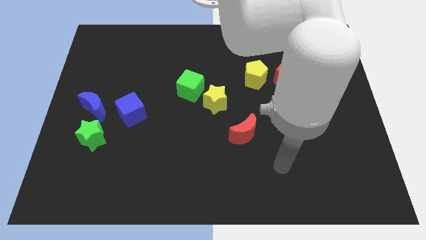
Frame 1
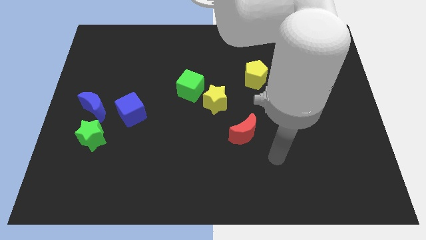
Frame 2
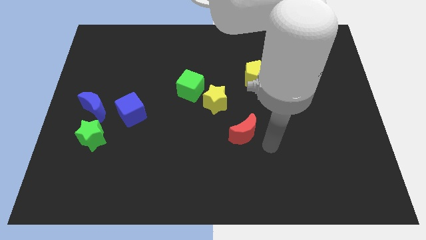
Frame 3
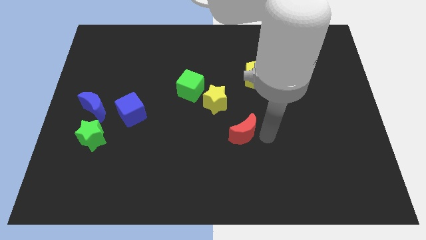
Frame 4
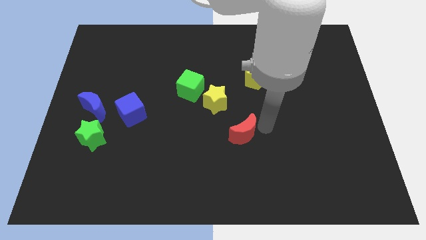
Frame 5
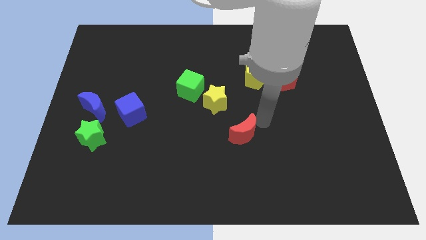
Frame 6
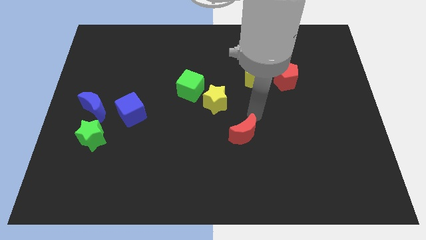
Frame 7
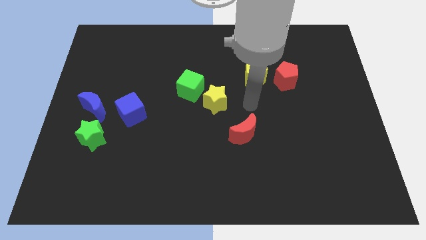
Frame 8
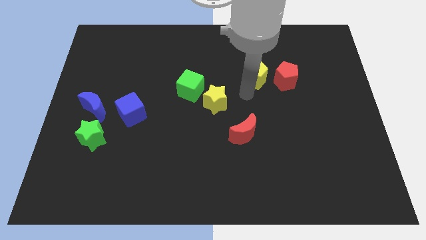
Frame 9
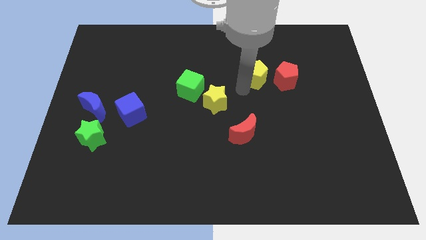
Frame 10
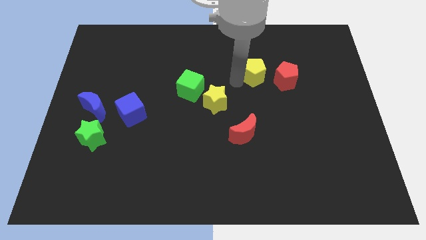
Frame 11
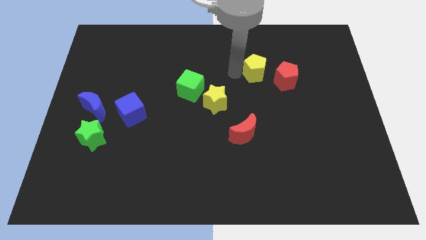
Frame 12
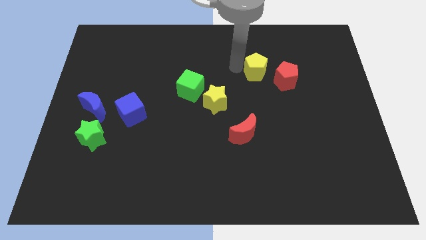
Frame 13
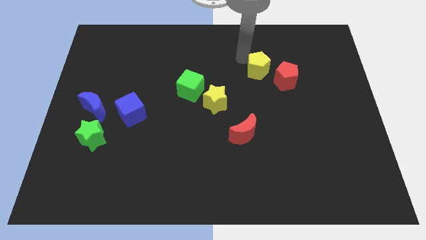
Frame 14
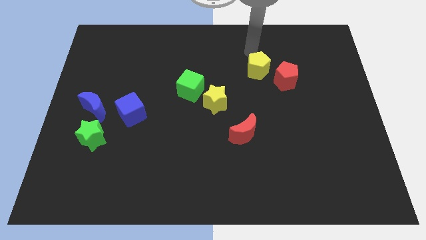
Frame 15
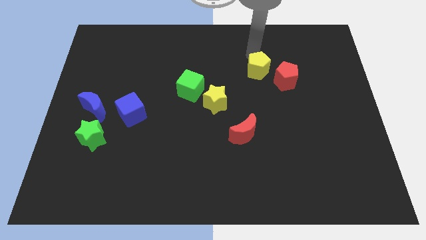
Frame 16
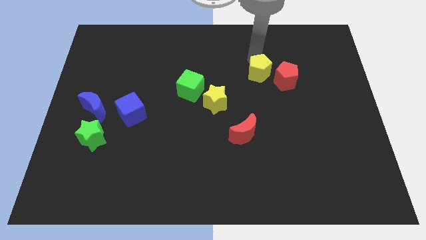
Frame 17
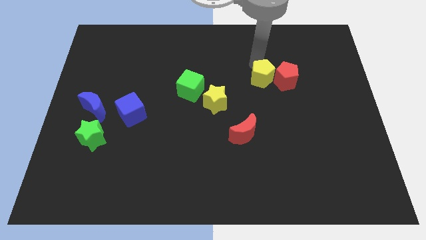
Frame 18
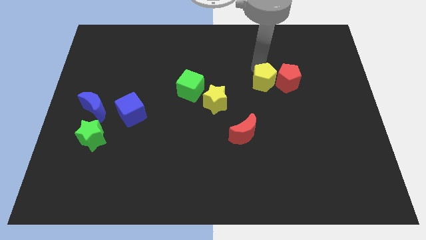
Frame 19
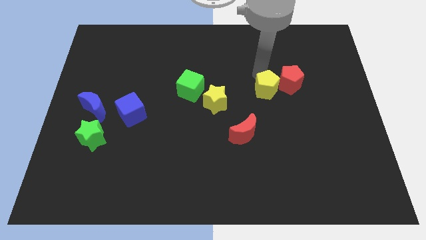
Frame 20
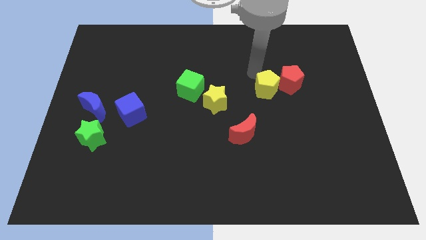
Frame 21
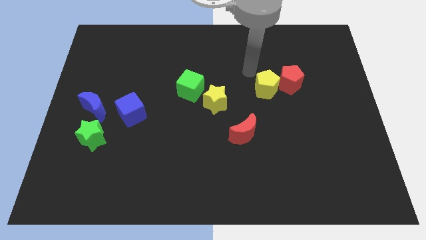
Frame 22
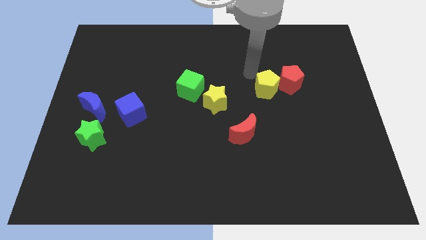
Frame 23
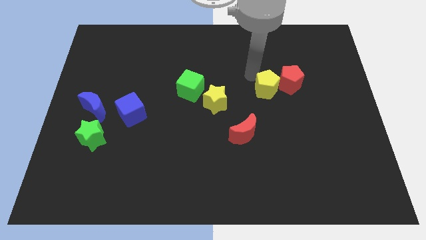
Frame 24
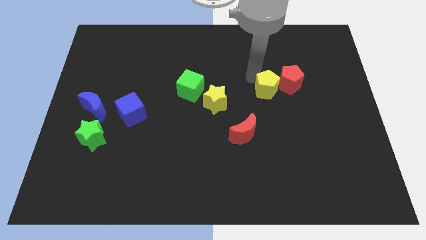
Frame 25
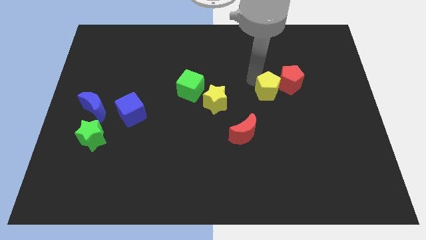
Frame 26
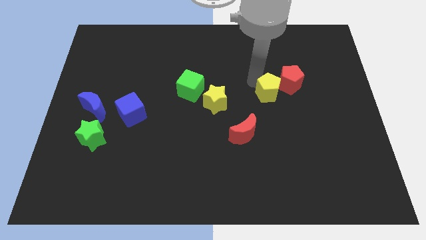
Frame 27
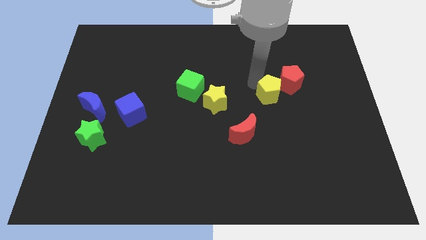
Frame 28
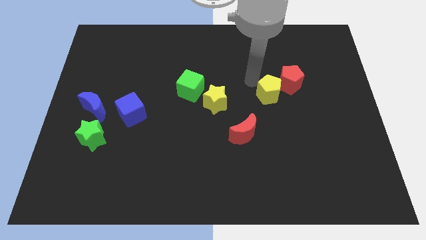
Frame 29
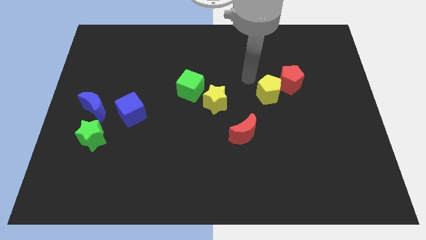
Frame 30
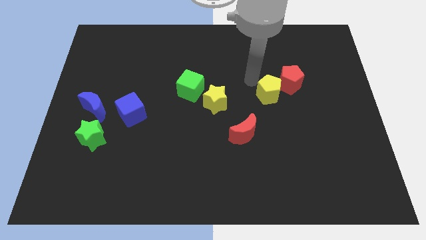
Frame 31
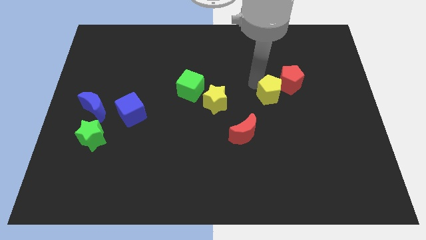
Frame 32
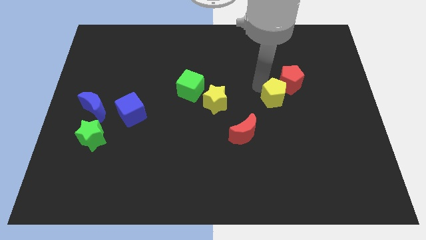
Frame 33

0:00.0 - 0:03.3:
push the yellow pentagon a bit diagonally down and right

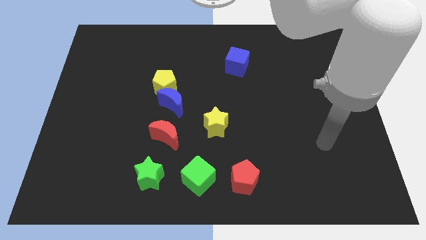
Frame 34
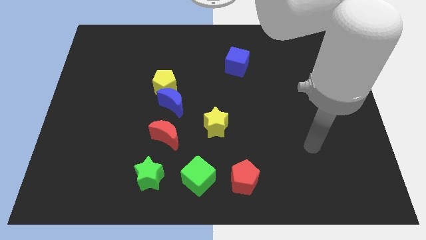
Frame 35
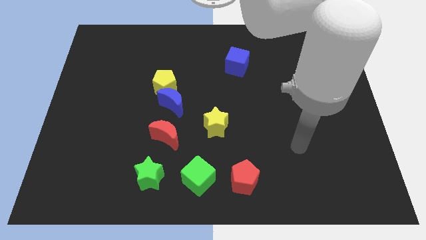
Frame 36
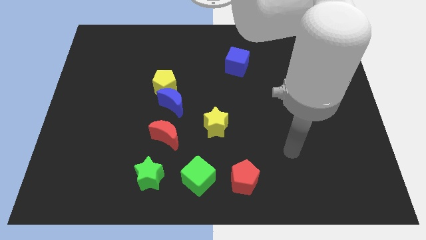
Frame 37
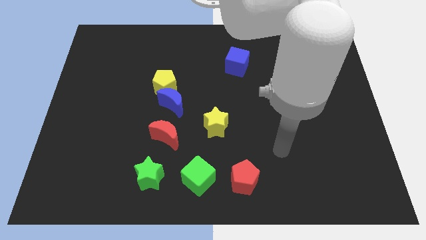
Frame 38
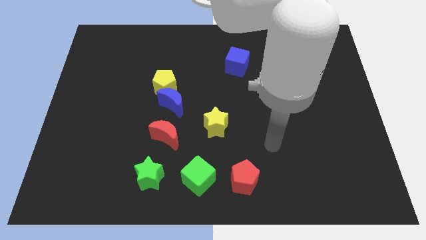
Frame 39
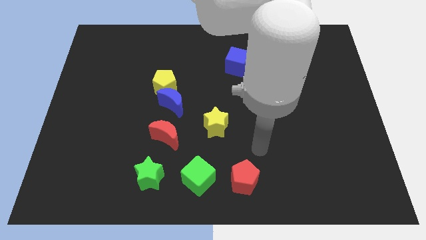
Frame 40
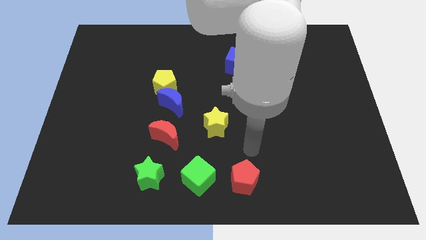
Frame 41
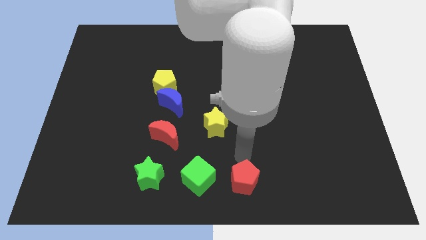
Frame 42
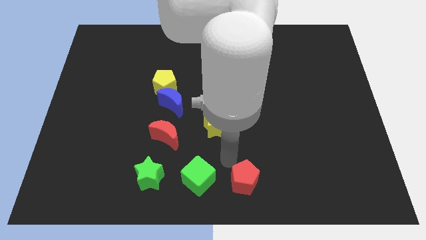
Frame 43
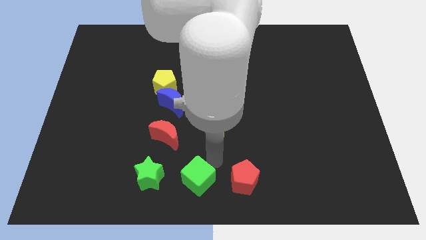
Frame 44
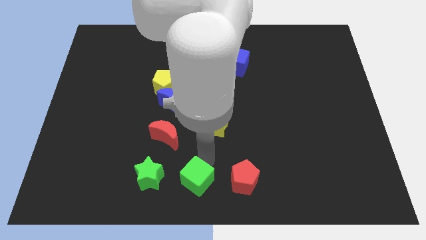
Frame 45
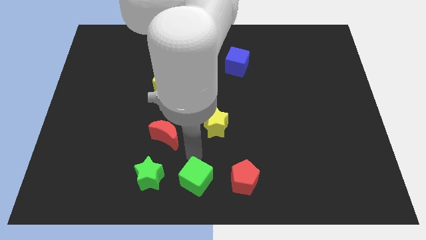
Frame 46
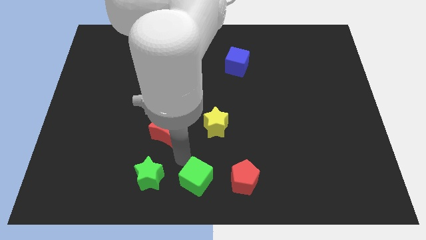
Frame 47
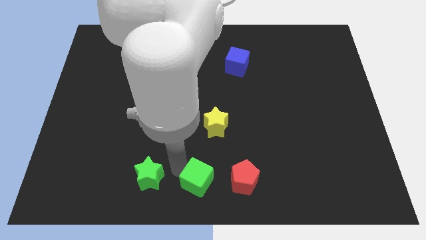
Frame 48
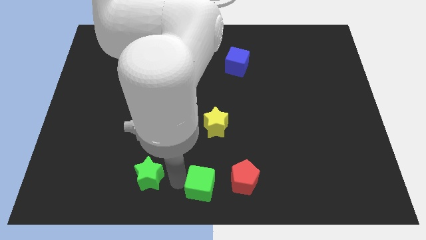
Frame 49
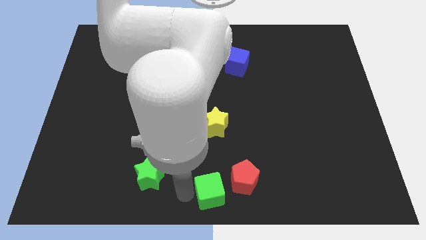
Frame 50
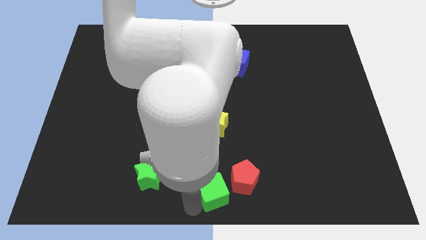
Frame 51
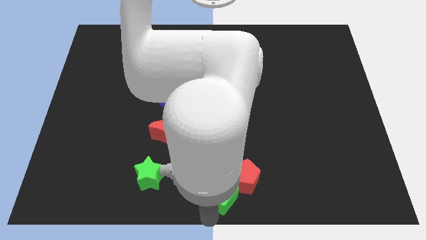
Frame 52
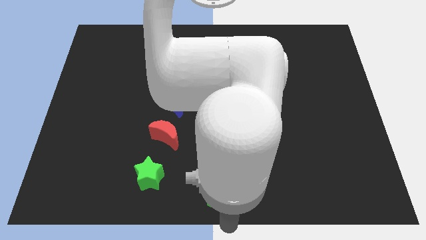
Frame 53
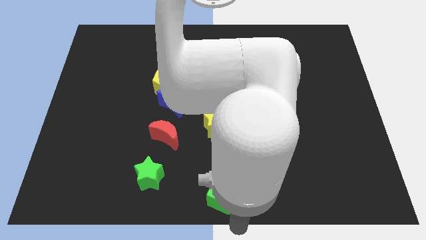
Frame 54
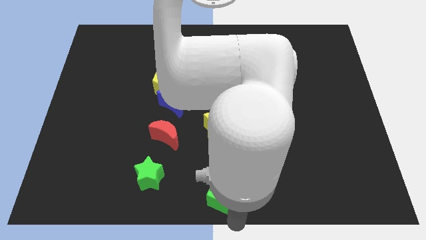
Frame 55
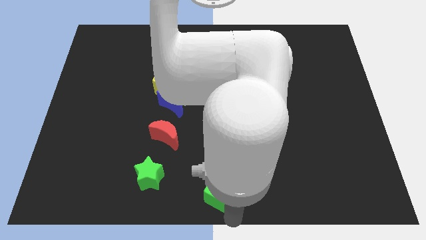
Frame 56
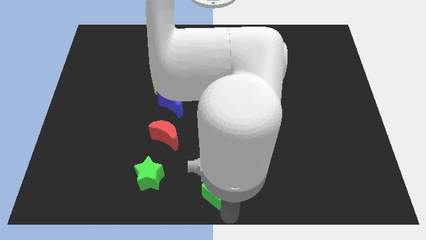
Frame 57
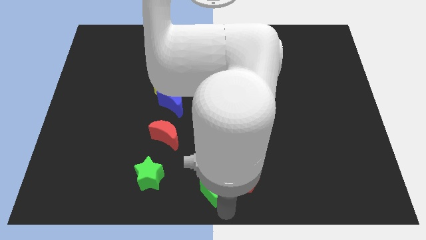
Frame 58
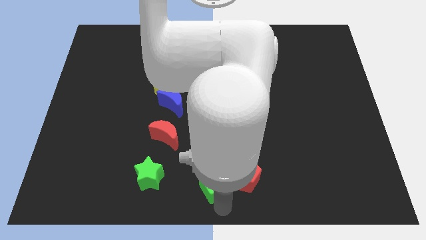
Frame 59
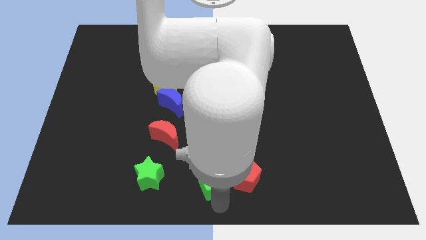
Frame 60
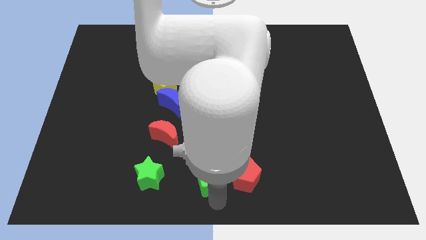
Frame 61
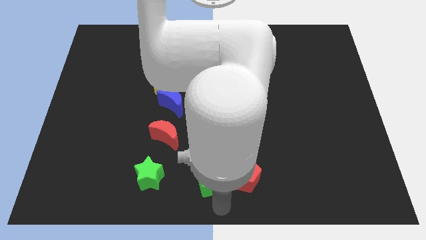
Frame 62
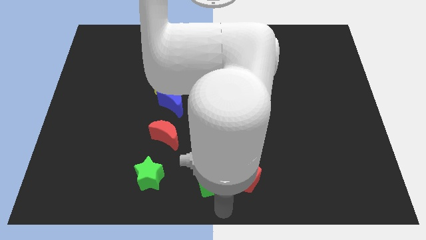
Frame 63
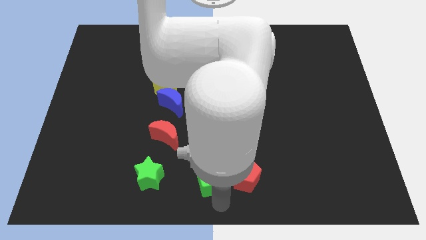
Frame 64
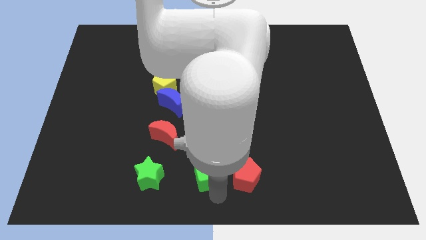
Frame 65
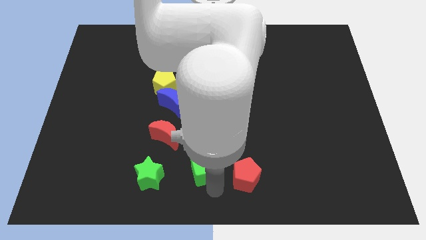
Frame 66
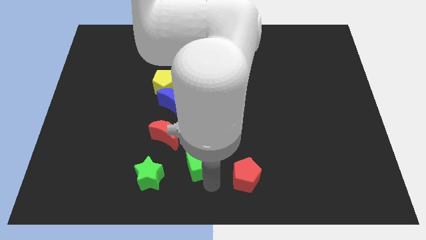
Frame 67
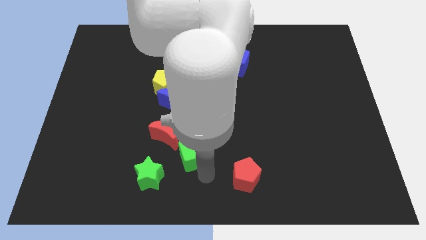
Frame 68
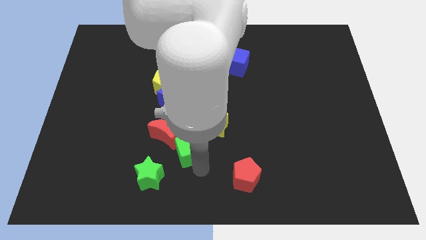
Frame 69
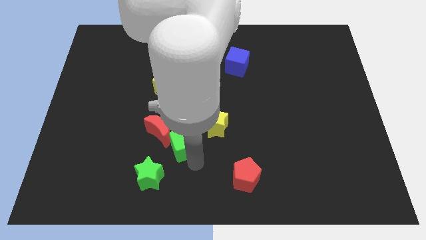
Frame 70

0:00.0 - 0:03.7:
slightly slide the green cube up

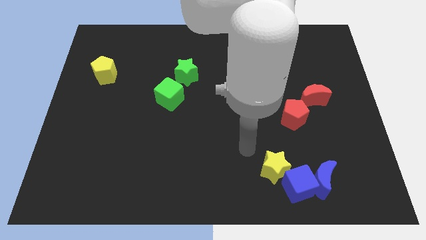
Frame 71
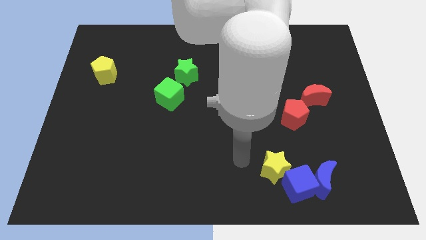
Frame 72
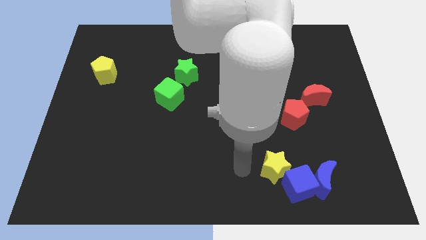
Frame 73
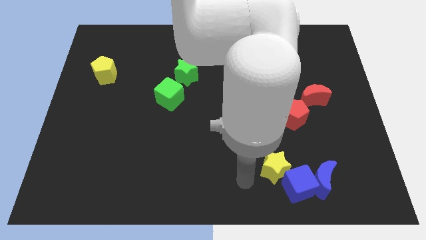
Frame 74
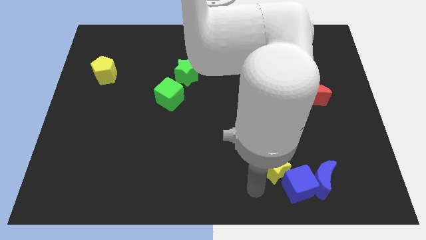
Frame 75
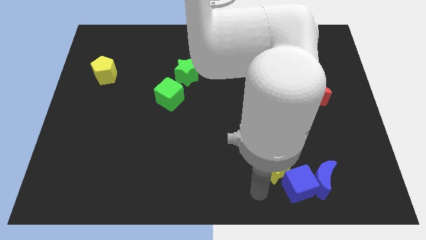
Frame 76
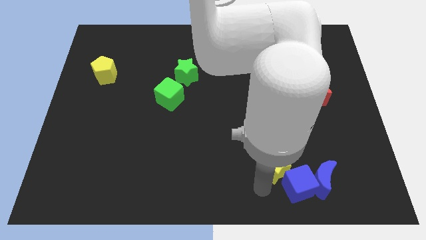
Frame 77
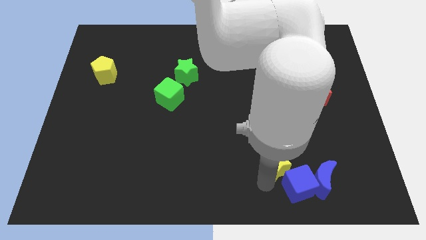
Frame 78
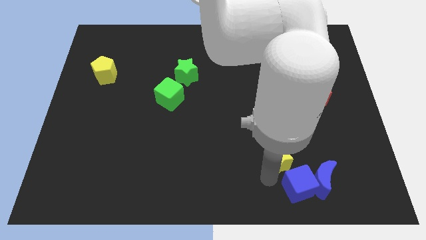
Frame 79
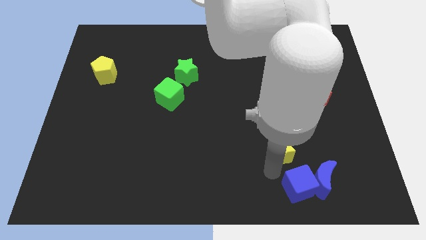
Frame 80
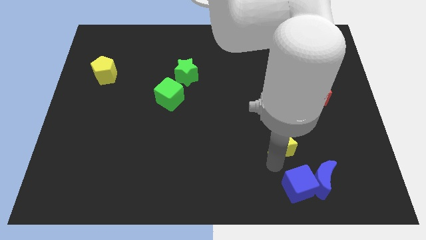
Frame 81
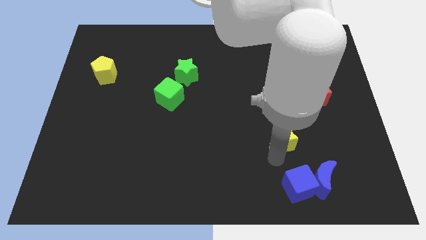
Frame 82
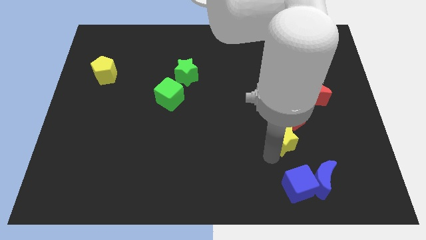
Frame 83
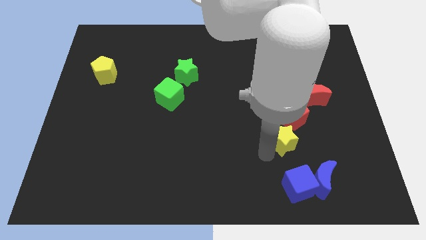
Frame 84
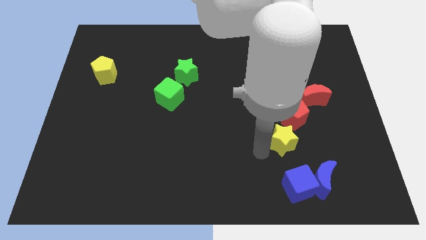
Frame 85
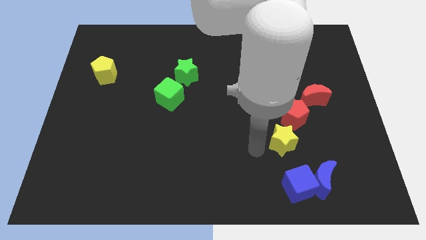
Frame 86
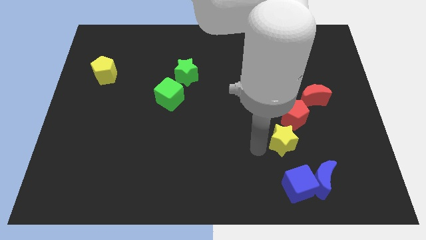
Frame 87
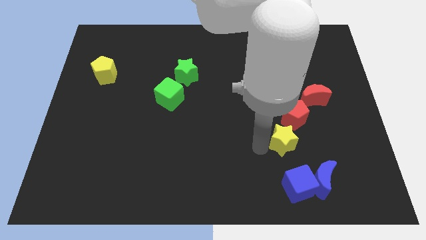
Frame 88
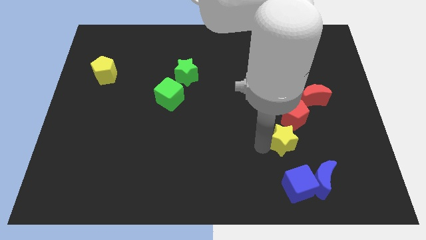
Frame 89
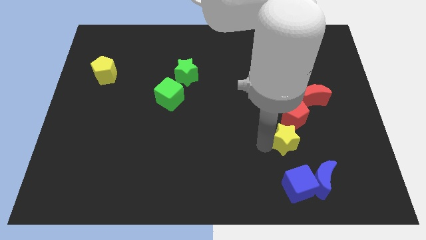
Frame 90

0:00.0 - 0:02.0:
slightly push the yellow star diagonally up and right
